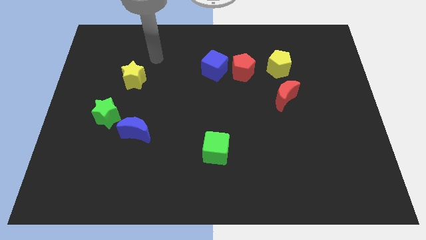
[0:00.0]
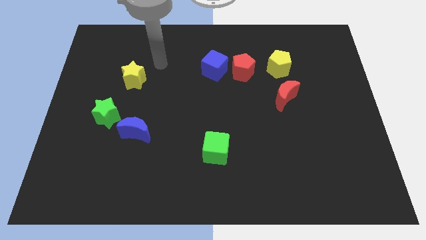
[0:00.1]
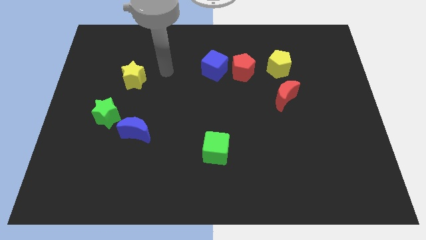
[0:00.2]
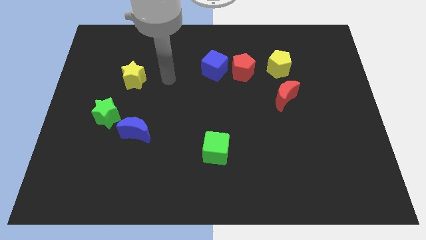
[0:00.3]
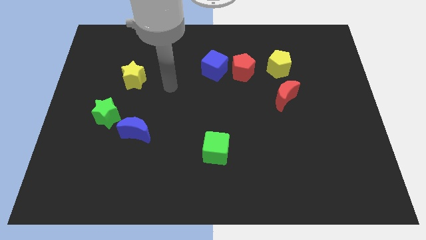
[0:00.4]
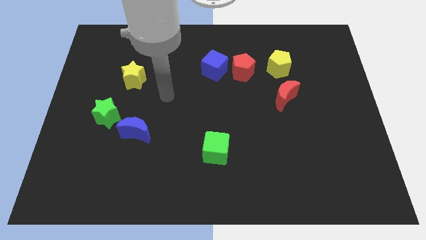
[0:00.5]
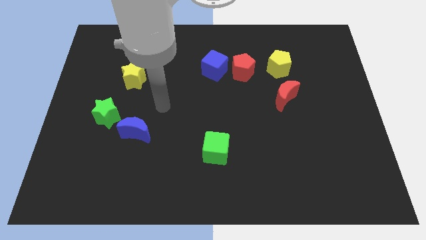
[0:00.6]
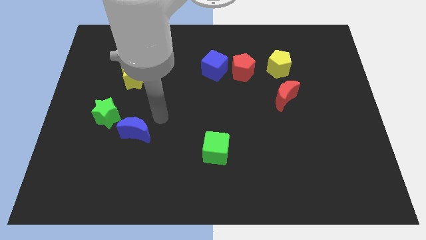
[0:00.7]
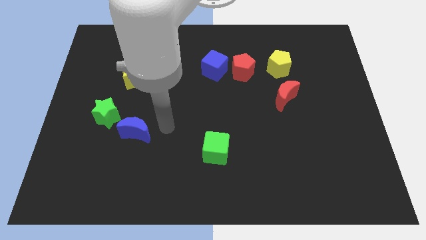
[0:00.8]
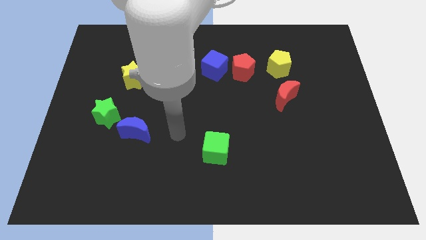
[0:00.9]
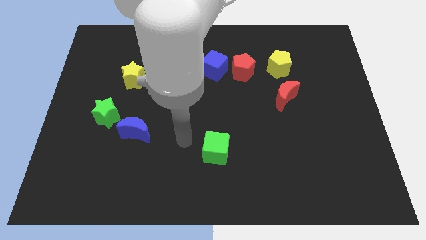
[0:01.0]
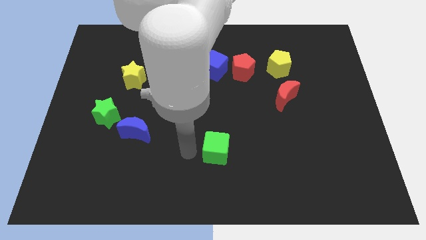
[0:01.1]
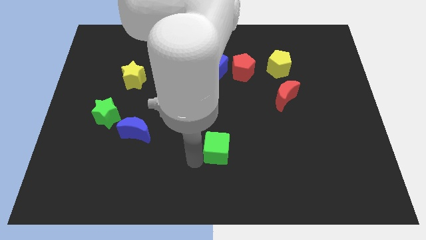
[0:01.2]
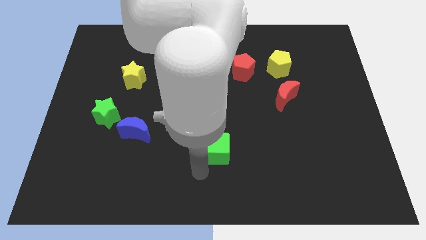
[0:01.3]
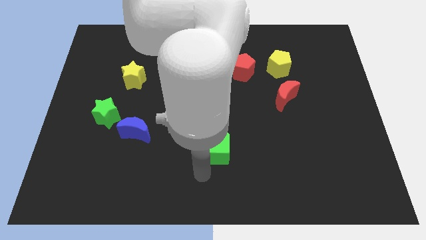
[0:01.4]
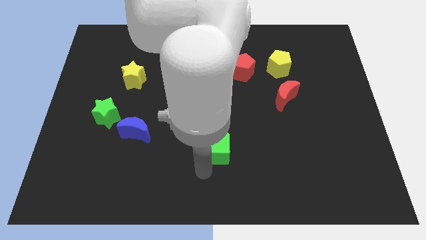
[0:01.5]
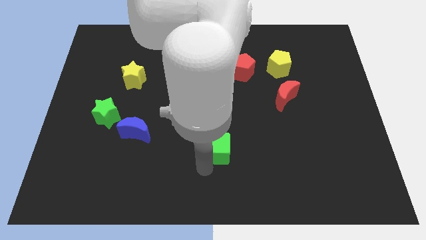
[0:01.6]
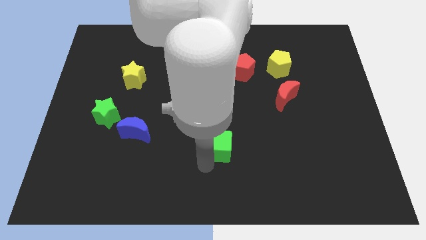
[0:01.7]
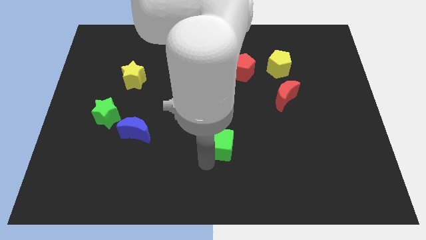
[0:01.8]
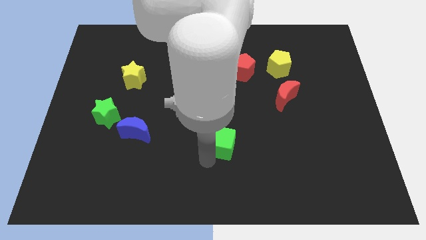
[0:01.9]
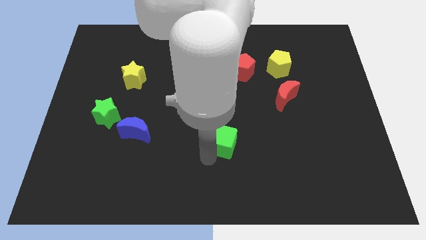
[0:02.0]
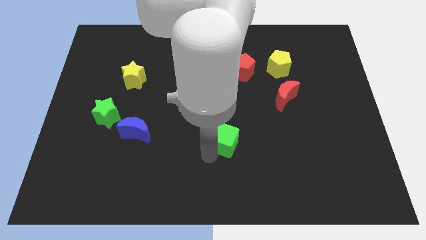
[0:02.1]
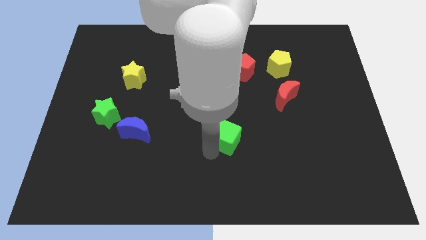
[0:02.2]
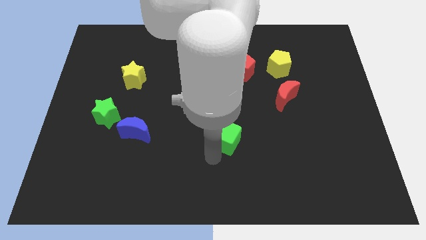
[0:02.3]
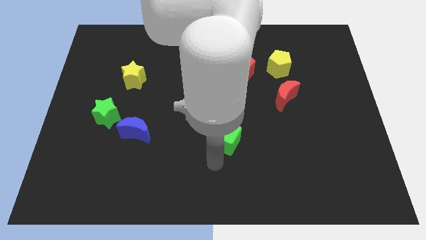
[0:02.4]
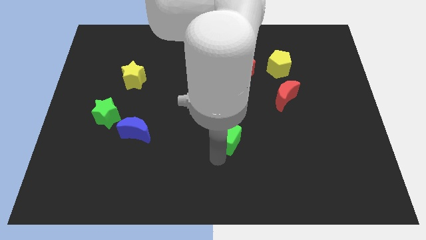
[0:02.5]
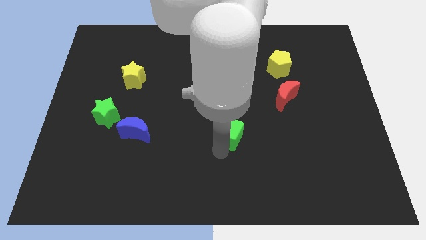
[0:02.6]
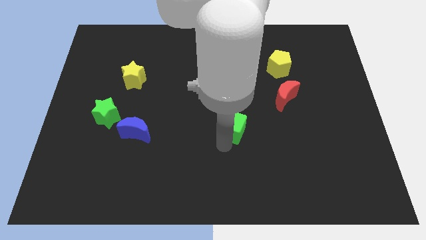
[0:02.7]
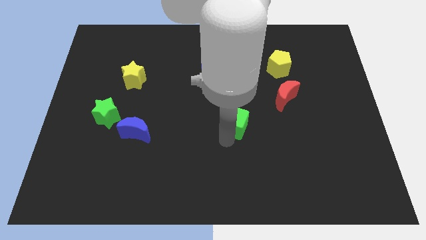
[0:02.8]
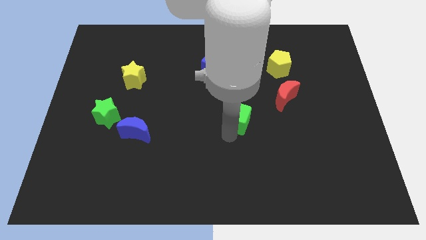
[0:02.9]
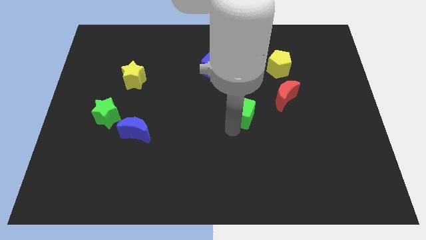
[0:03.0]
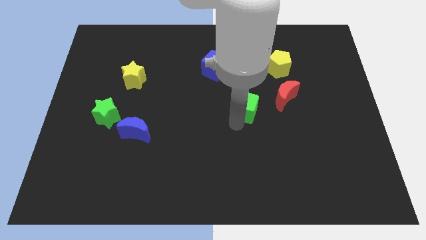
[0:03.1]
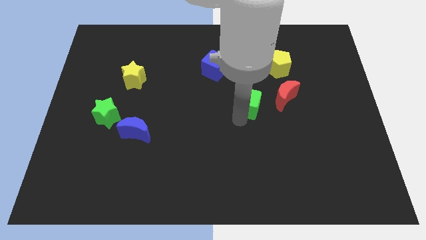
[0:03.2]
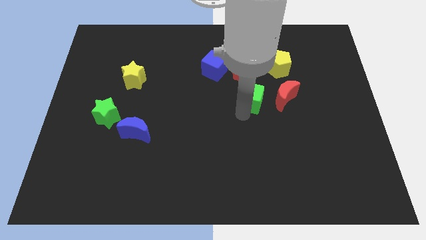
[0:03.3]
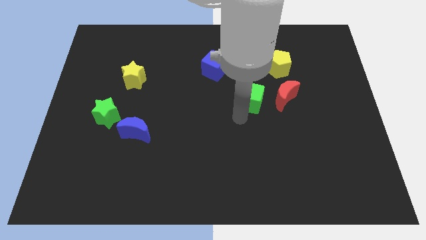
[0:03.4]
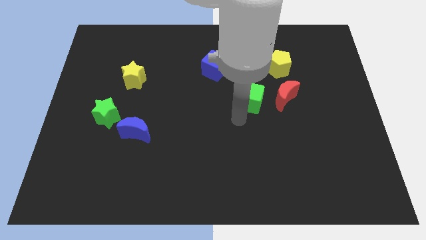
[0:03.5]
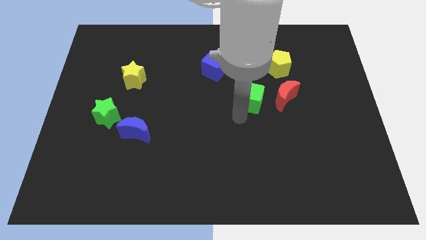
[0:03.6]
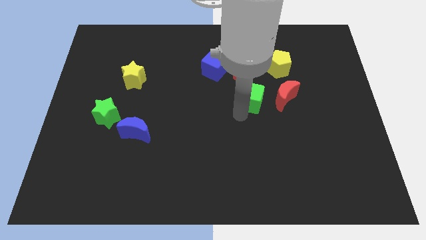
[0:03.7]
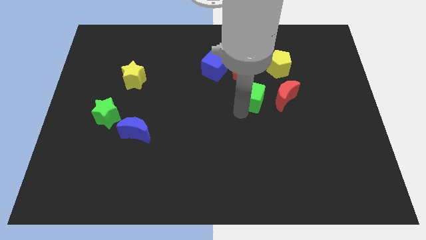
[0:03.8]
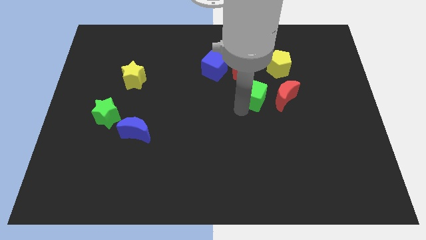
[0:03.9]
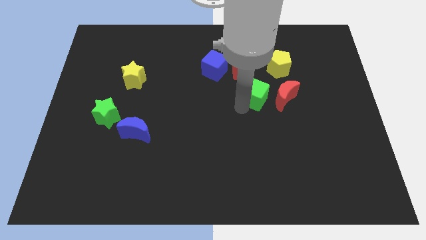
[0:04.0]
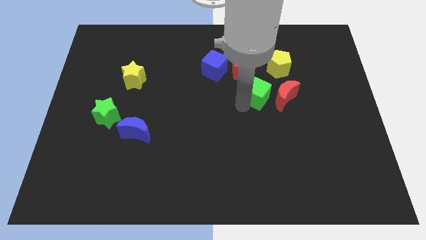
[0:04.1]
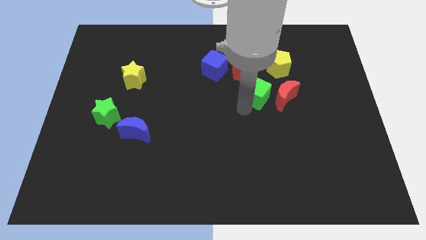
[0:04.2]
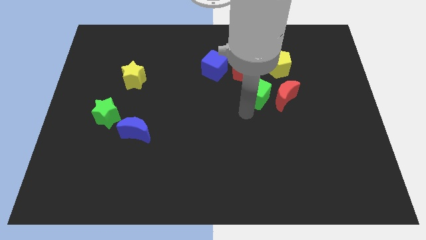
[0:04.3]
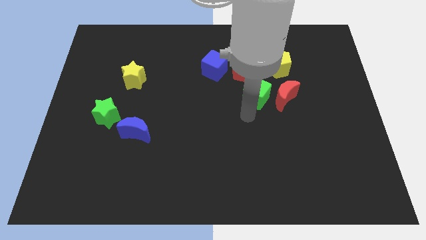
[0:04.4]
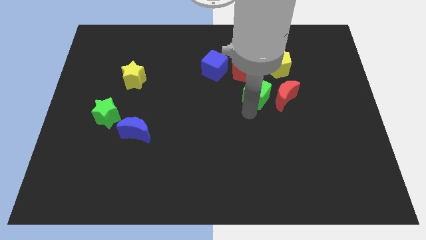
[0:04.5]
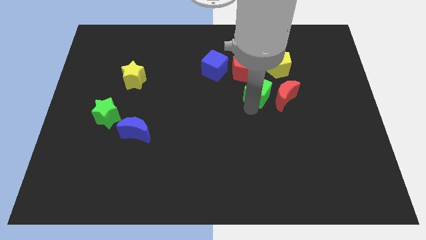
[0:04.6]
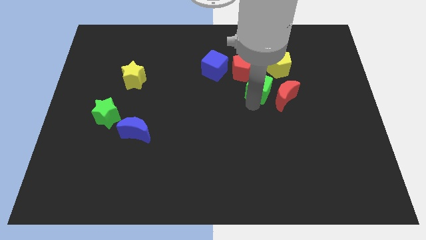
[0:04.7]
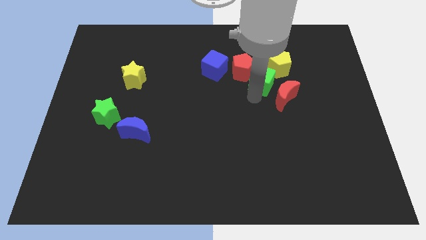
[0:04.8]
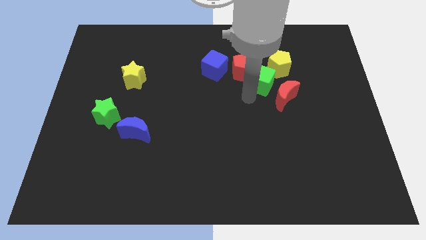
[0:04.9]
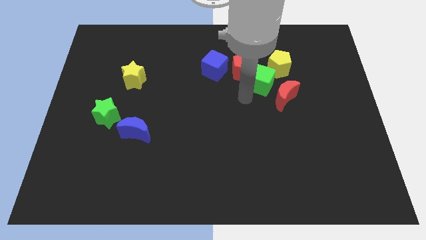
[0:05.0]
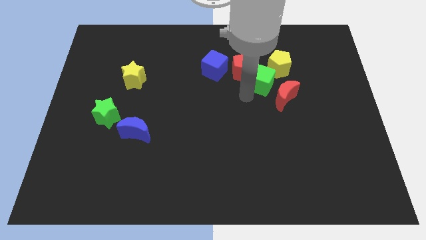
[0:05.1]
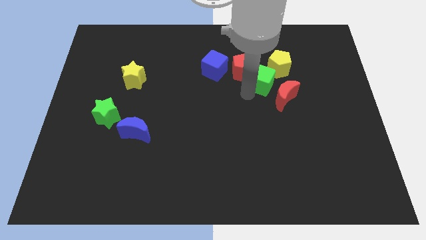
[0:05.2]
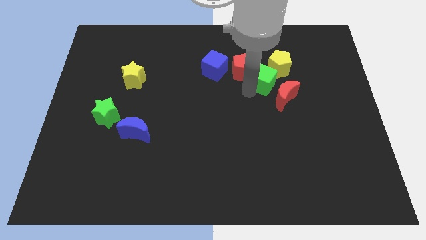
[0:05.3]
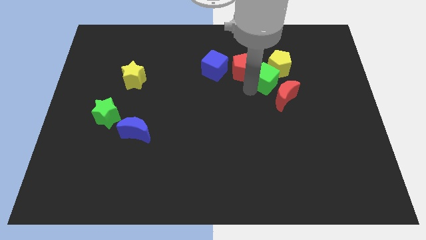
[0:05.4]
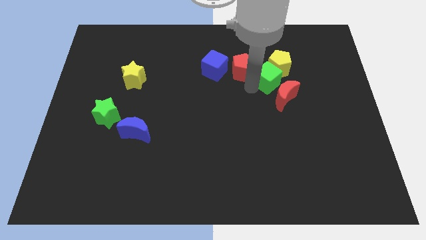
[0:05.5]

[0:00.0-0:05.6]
put the green cube next to the yellow pentagon

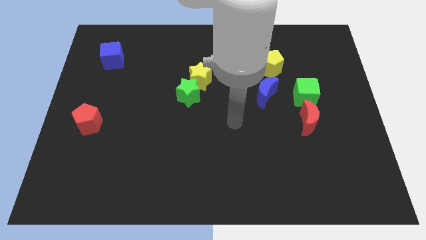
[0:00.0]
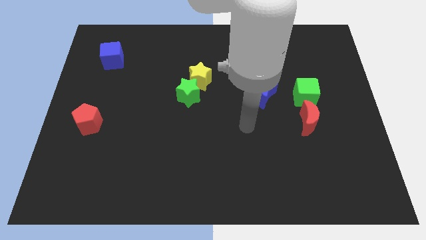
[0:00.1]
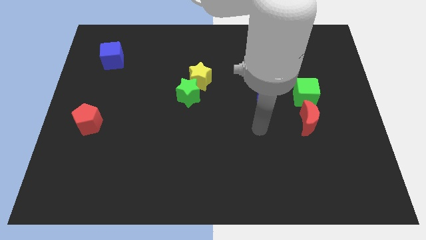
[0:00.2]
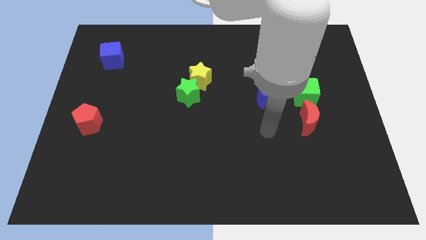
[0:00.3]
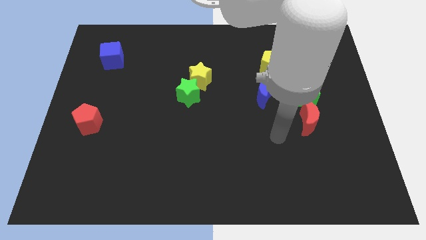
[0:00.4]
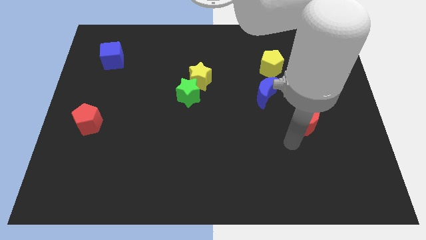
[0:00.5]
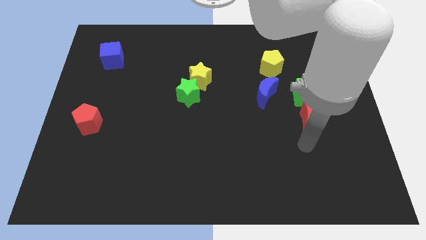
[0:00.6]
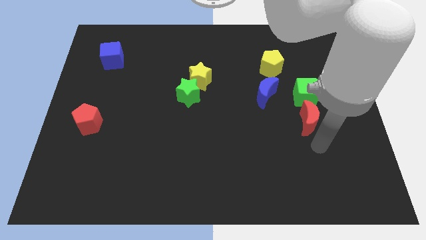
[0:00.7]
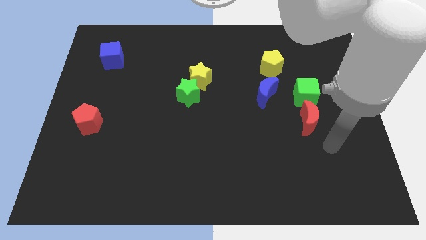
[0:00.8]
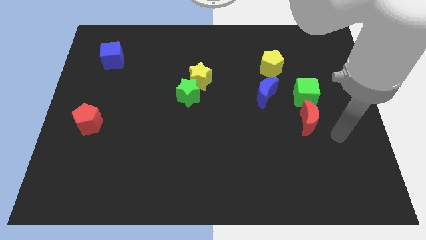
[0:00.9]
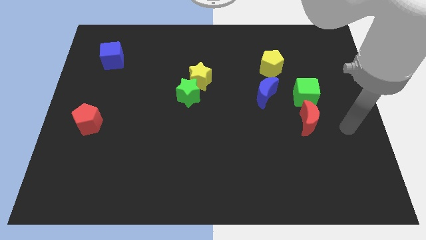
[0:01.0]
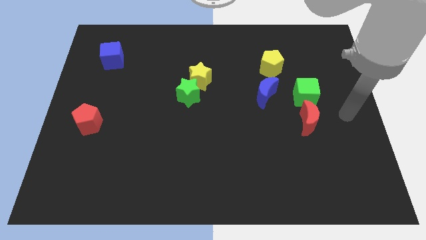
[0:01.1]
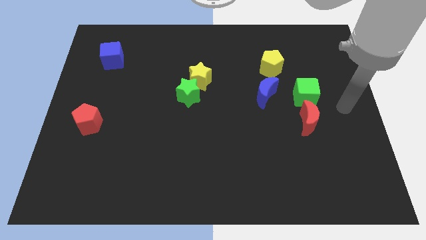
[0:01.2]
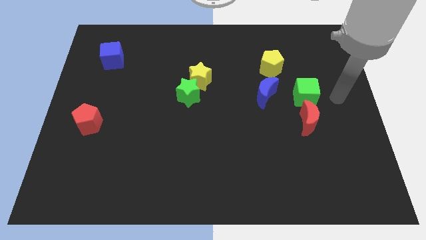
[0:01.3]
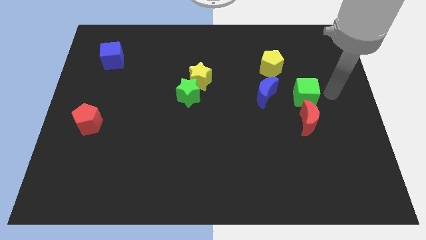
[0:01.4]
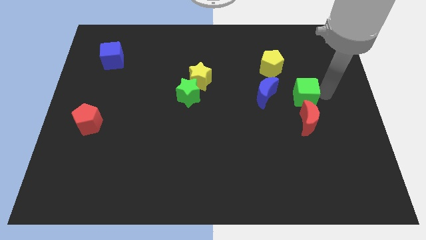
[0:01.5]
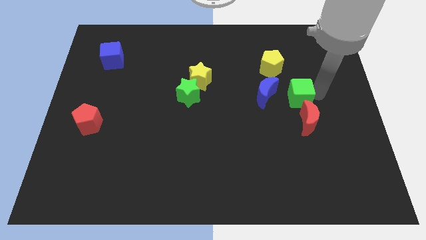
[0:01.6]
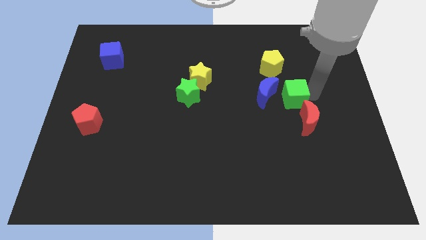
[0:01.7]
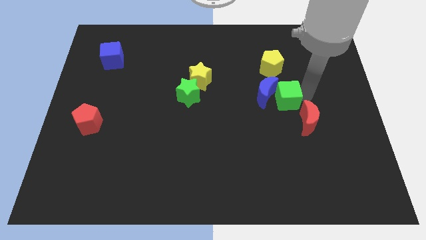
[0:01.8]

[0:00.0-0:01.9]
put the green cube next to the blue moon
